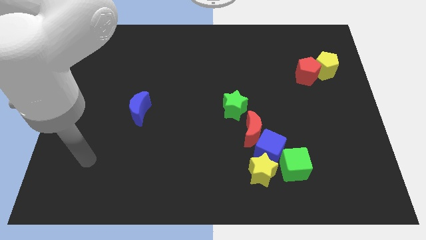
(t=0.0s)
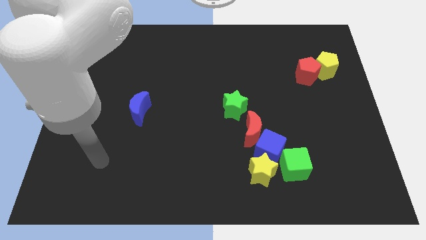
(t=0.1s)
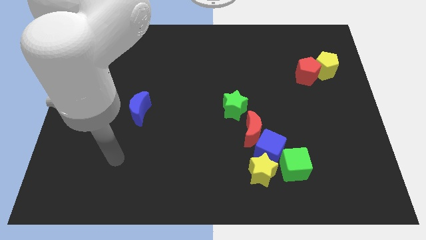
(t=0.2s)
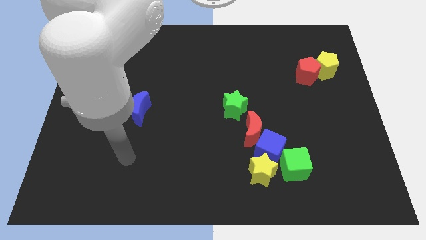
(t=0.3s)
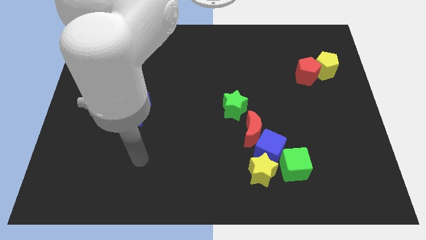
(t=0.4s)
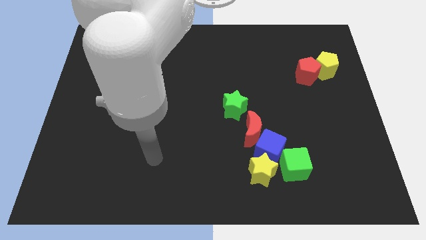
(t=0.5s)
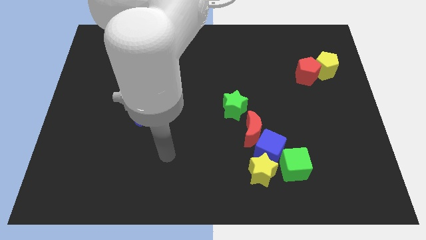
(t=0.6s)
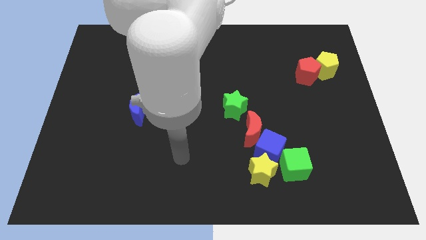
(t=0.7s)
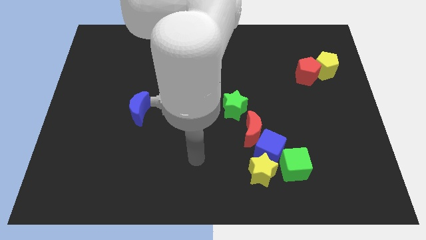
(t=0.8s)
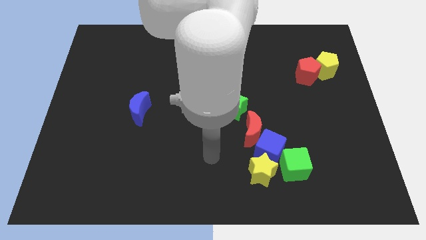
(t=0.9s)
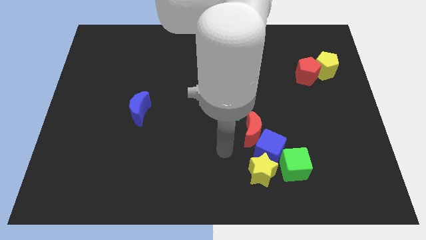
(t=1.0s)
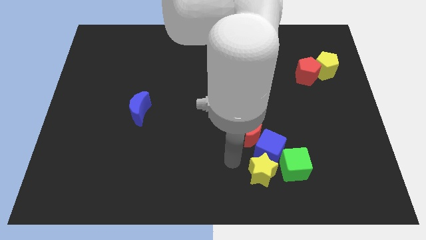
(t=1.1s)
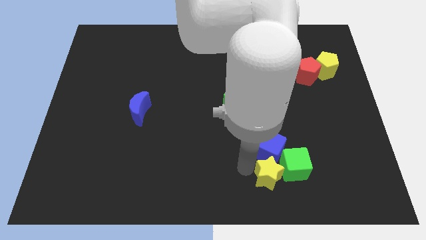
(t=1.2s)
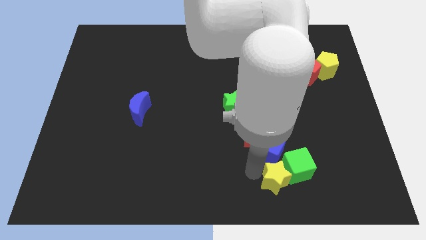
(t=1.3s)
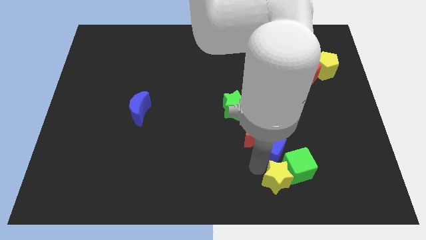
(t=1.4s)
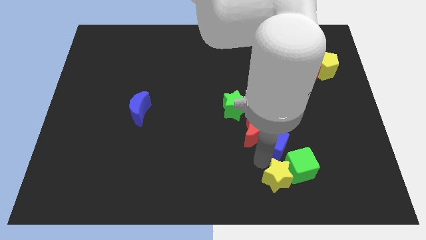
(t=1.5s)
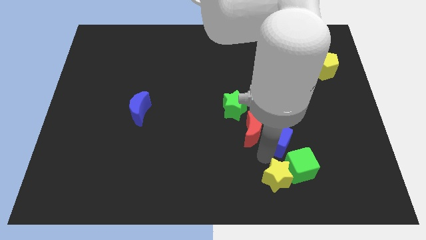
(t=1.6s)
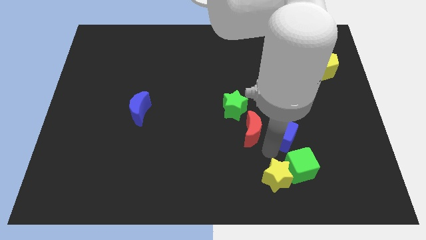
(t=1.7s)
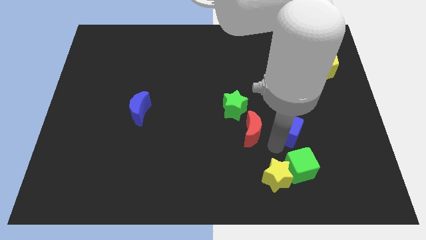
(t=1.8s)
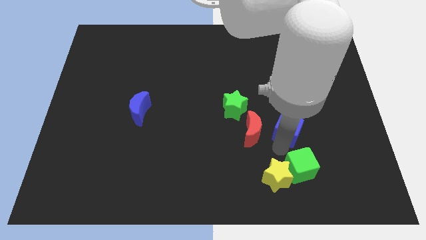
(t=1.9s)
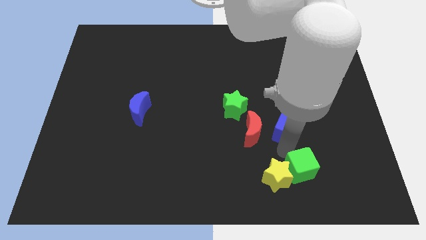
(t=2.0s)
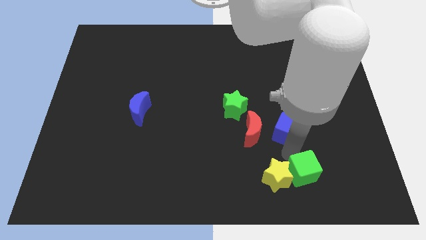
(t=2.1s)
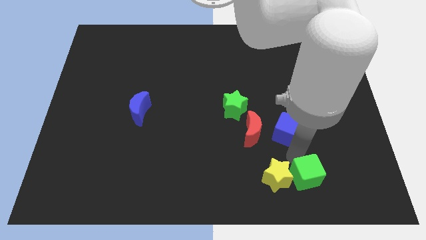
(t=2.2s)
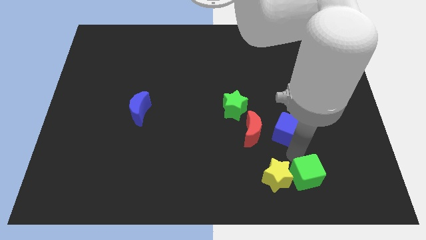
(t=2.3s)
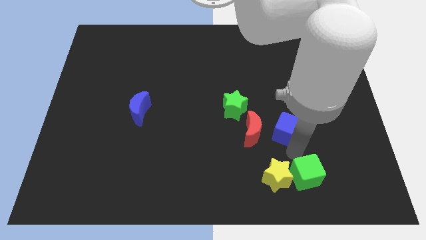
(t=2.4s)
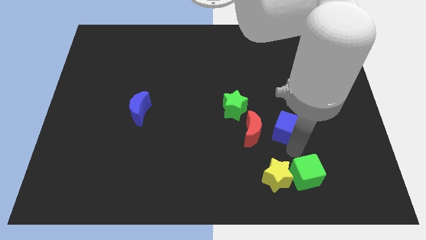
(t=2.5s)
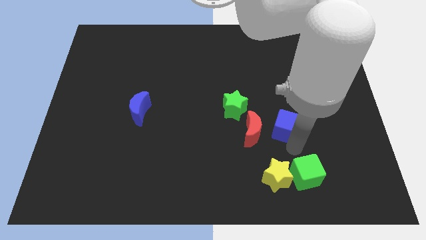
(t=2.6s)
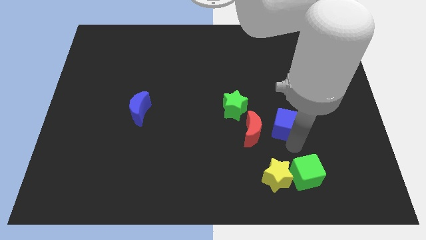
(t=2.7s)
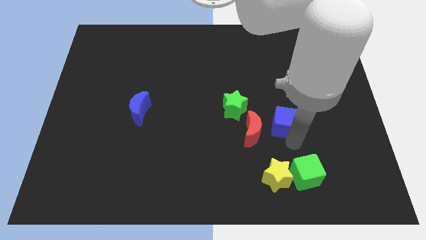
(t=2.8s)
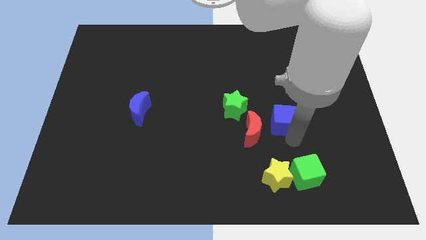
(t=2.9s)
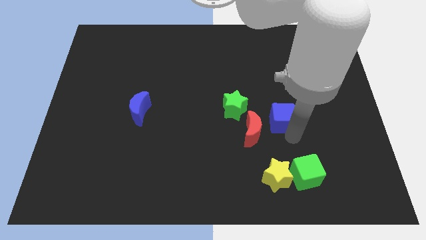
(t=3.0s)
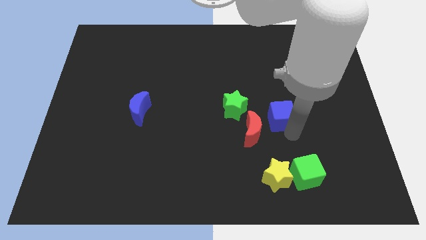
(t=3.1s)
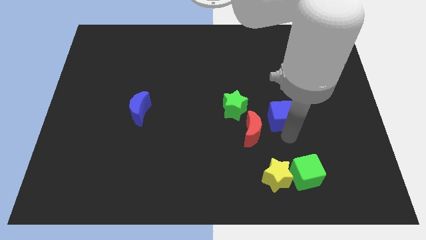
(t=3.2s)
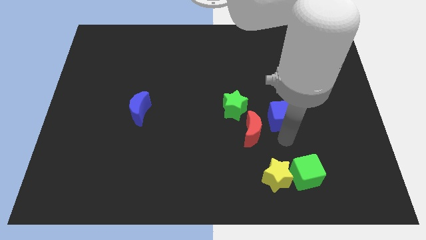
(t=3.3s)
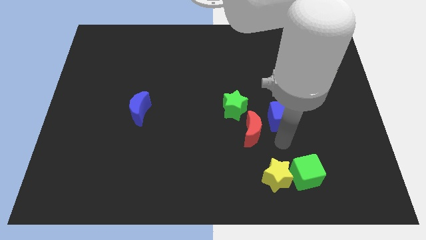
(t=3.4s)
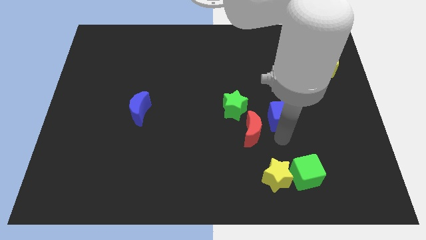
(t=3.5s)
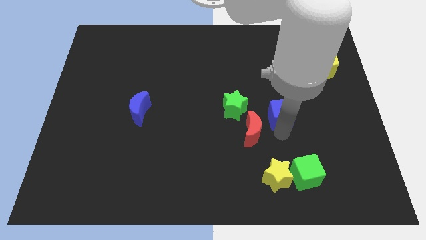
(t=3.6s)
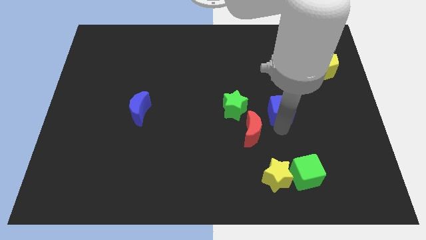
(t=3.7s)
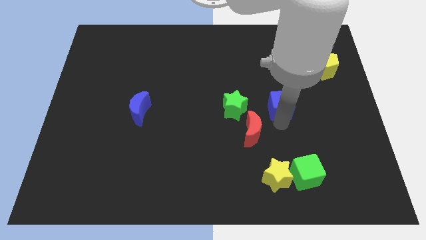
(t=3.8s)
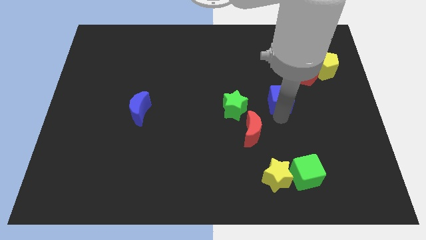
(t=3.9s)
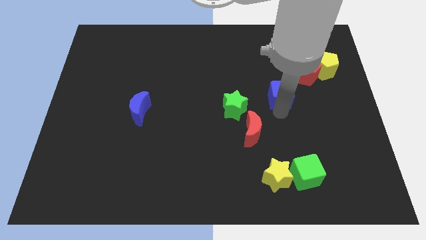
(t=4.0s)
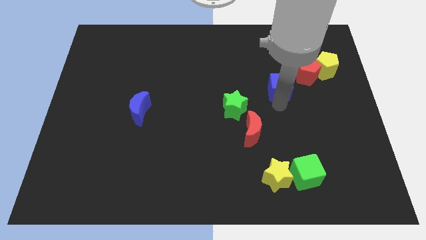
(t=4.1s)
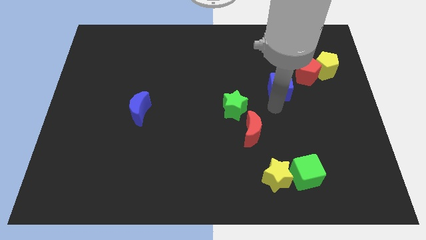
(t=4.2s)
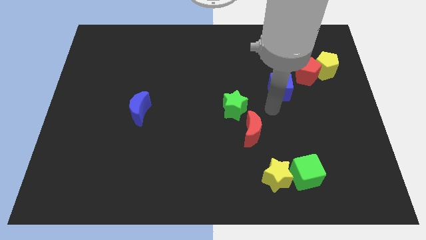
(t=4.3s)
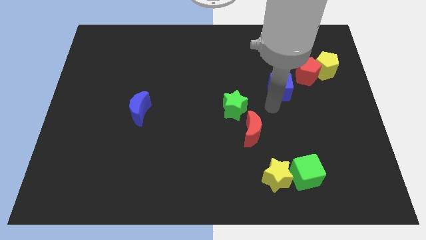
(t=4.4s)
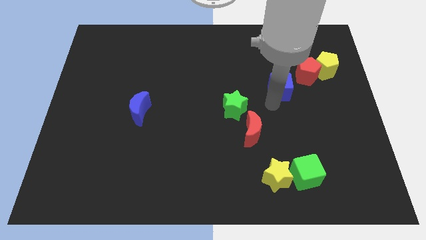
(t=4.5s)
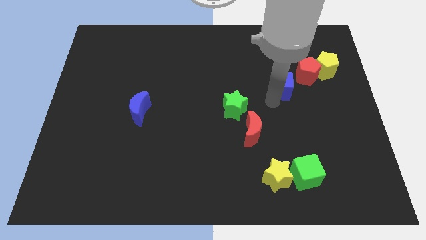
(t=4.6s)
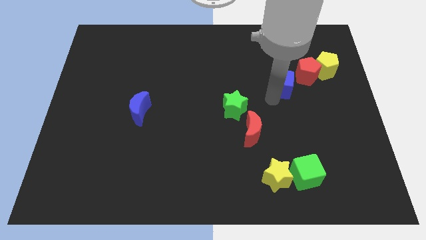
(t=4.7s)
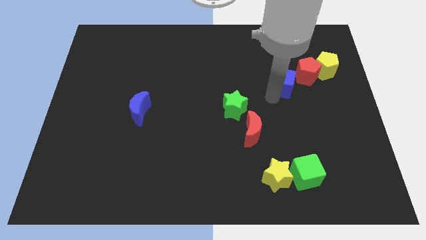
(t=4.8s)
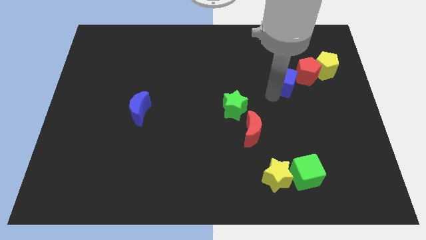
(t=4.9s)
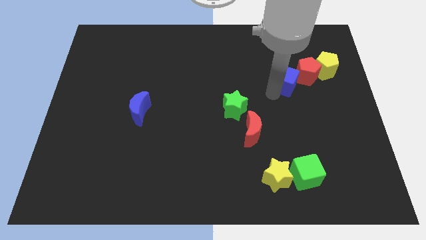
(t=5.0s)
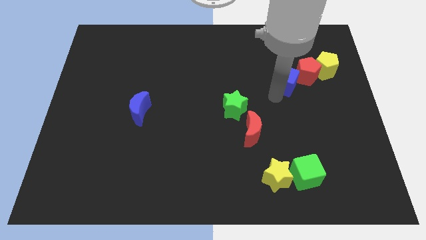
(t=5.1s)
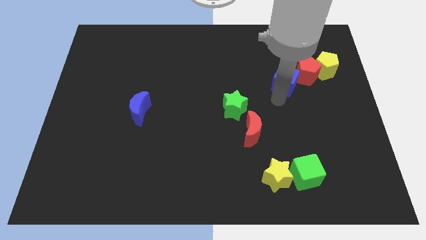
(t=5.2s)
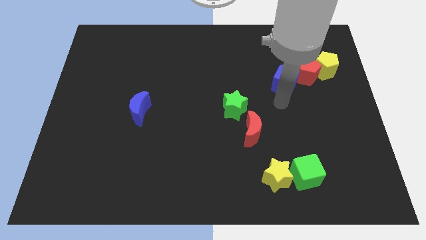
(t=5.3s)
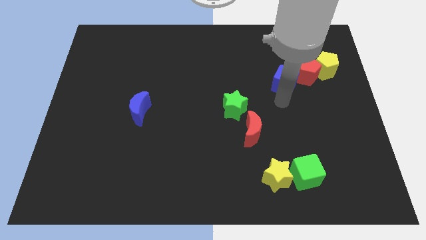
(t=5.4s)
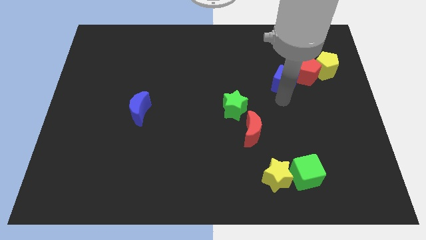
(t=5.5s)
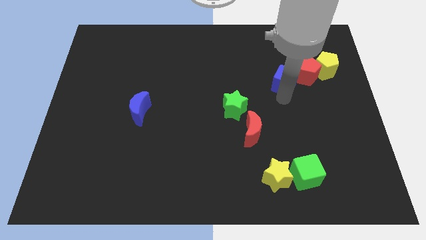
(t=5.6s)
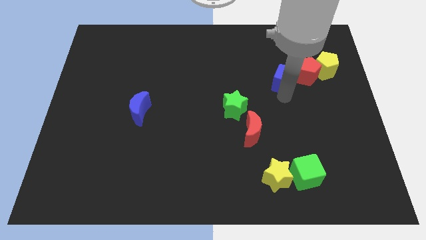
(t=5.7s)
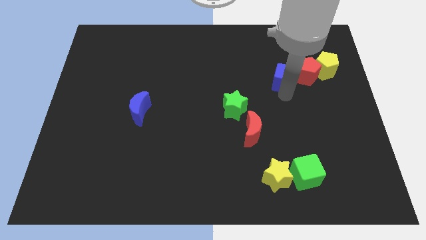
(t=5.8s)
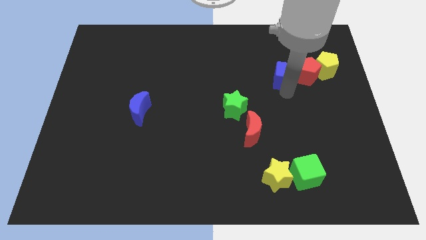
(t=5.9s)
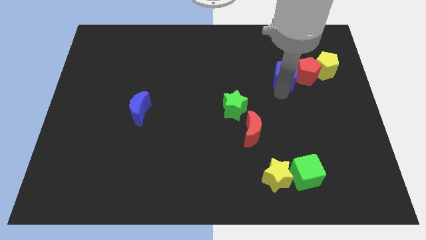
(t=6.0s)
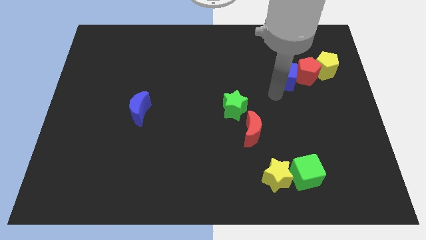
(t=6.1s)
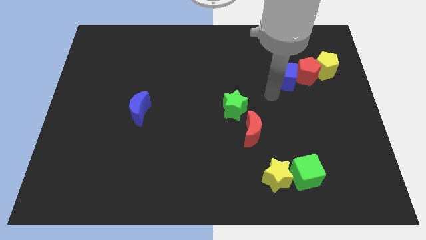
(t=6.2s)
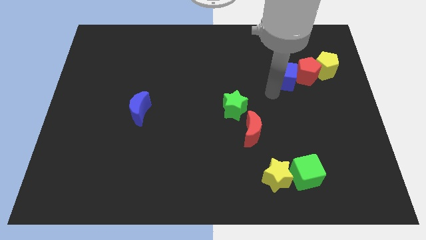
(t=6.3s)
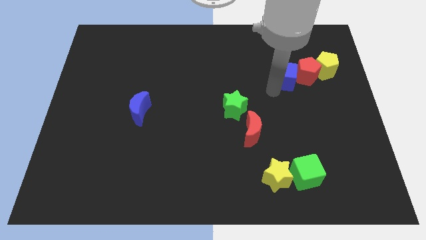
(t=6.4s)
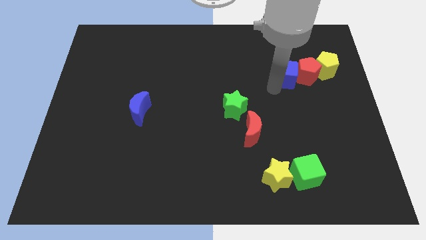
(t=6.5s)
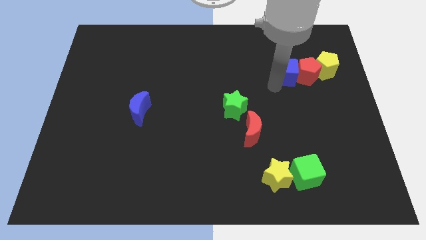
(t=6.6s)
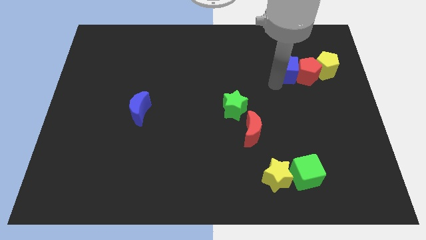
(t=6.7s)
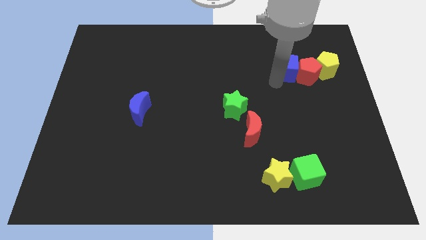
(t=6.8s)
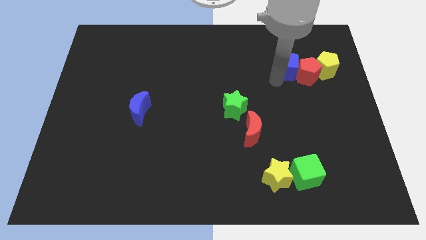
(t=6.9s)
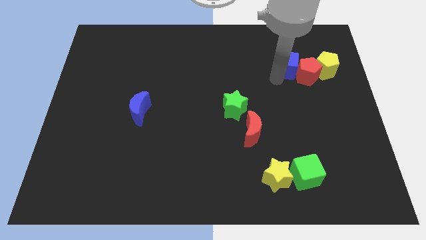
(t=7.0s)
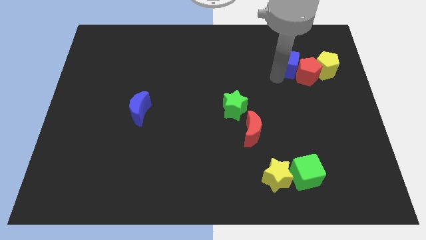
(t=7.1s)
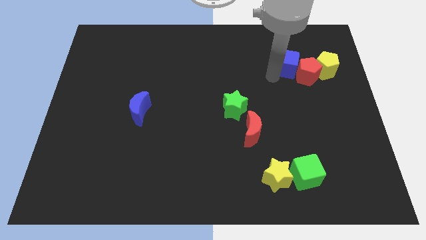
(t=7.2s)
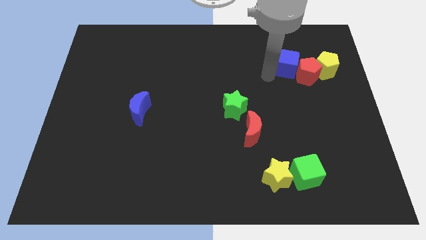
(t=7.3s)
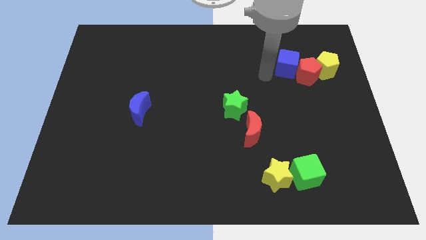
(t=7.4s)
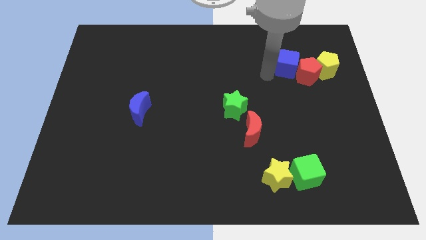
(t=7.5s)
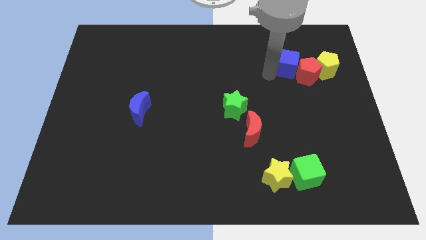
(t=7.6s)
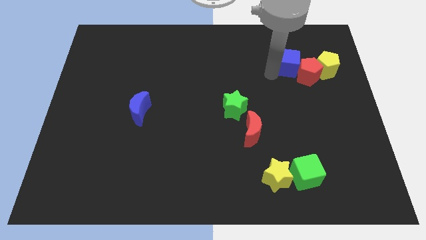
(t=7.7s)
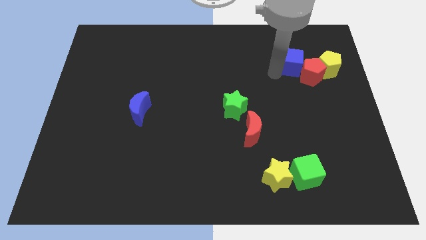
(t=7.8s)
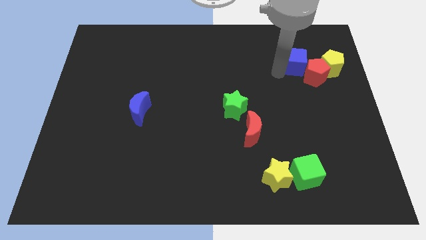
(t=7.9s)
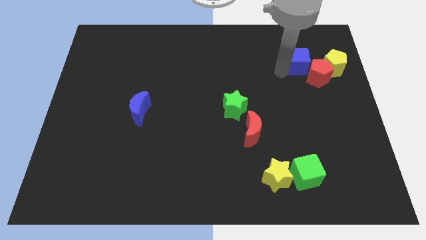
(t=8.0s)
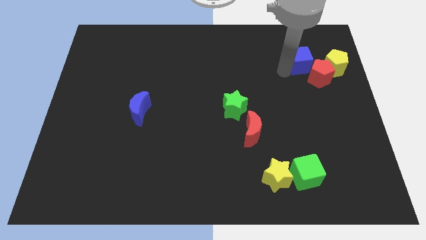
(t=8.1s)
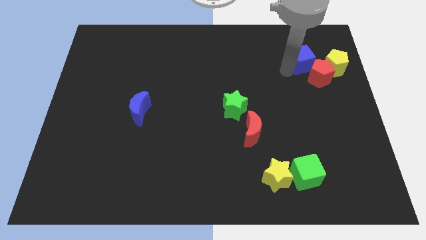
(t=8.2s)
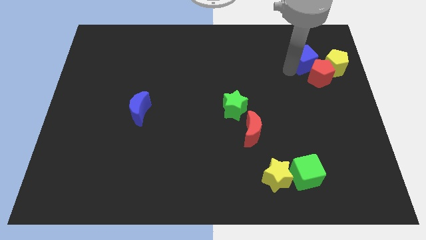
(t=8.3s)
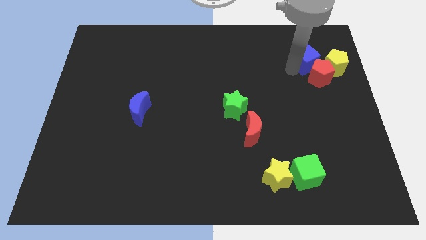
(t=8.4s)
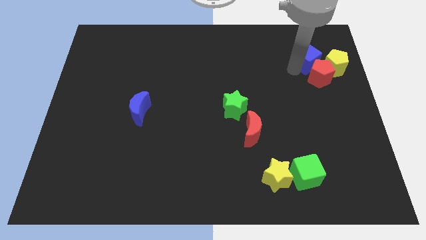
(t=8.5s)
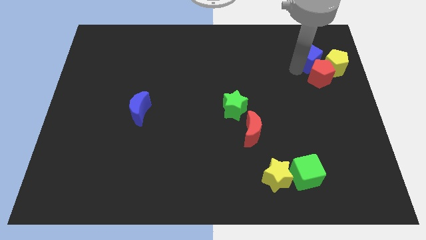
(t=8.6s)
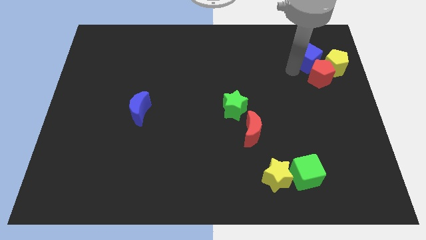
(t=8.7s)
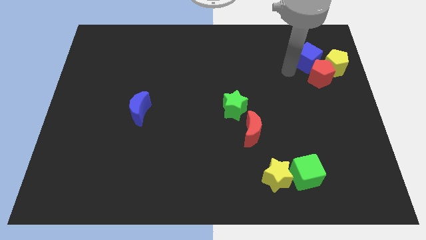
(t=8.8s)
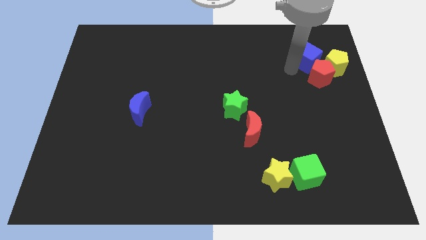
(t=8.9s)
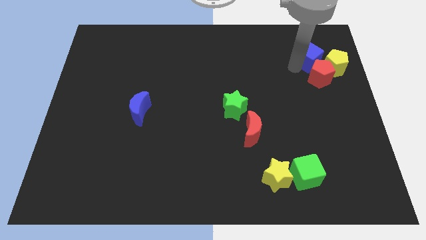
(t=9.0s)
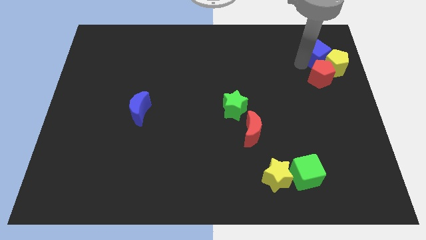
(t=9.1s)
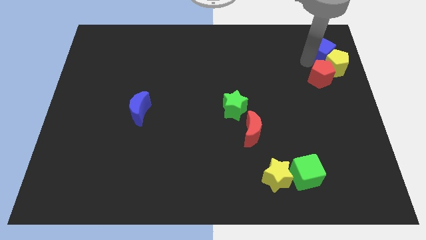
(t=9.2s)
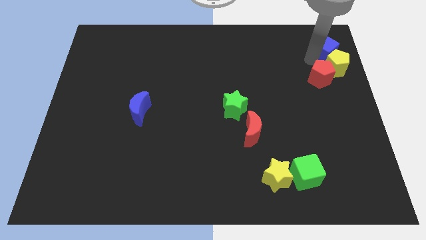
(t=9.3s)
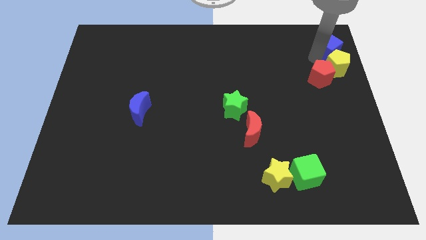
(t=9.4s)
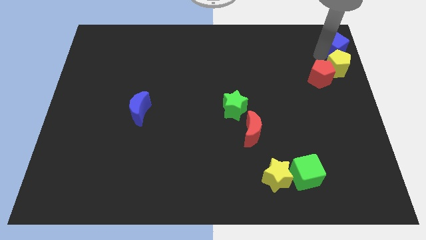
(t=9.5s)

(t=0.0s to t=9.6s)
move the blue cube to the top right
